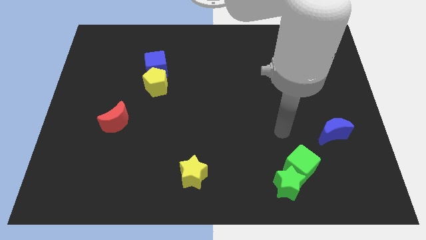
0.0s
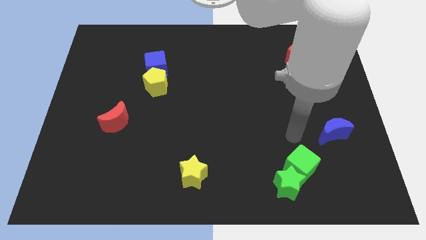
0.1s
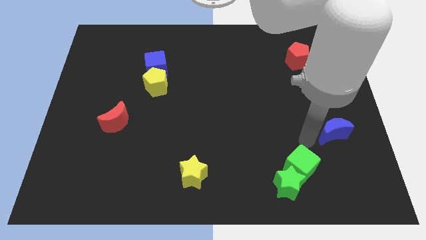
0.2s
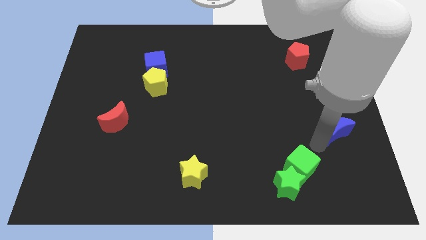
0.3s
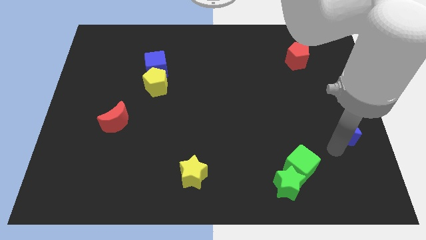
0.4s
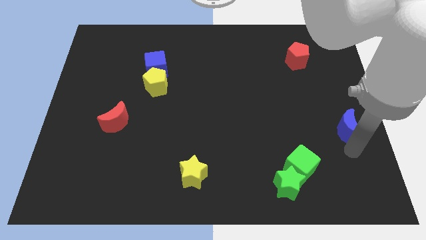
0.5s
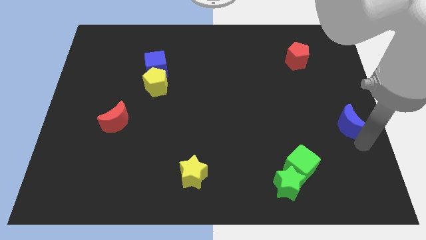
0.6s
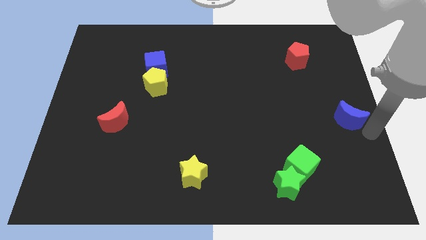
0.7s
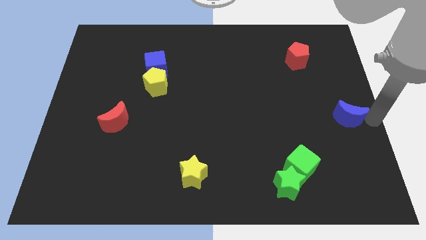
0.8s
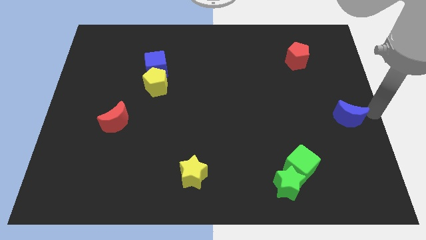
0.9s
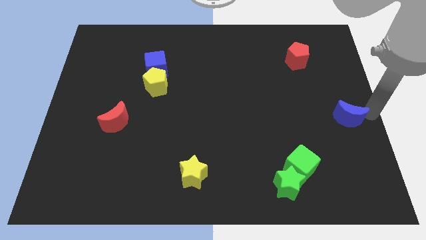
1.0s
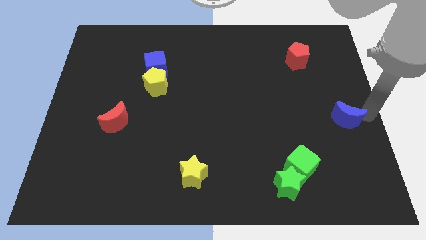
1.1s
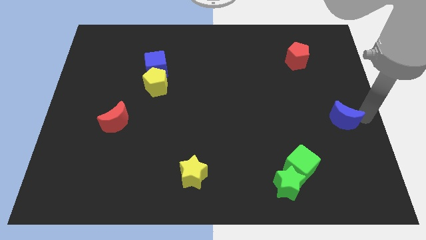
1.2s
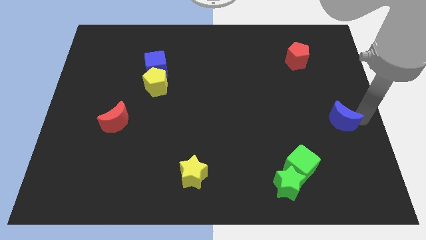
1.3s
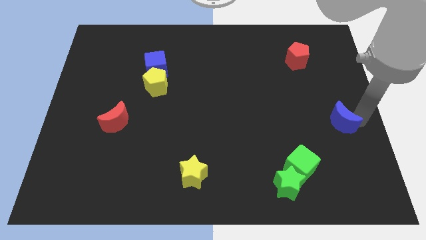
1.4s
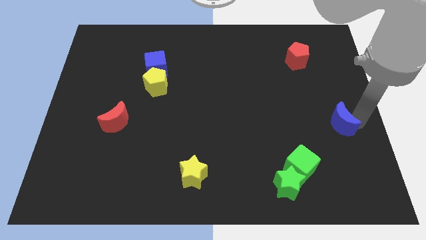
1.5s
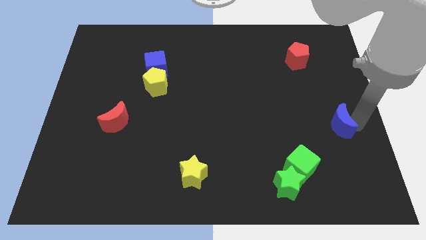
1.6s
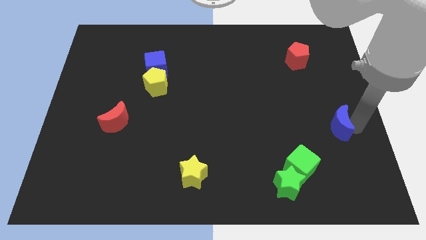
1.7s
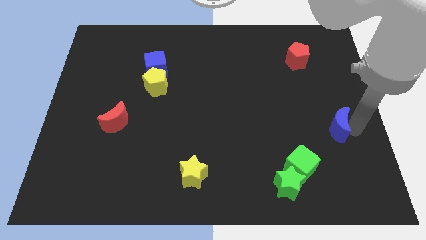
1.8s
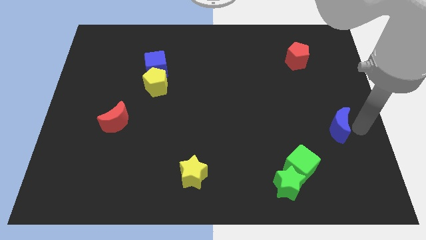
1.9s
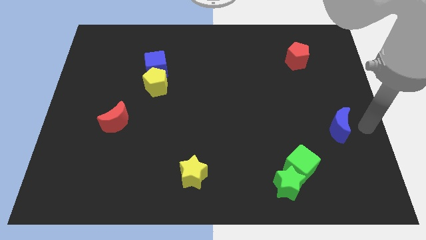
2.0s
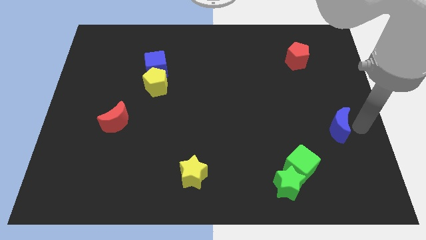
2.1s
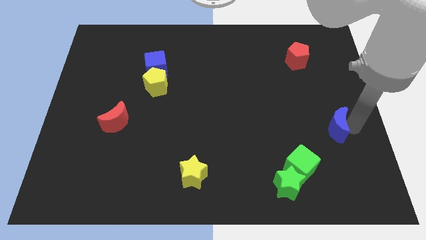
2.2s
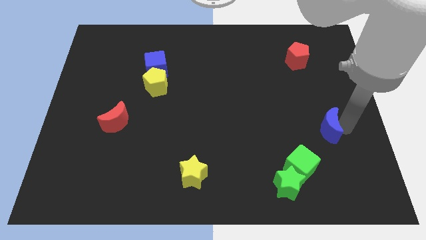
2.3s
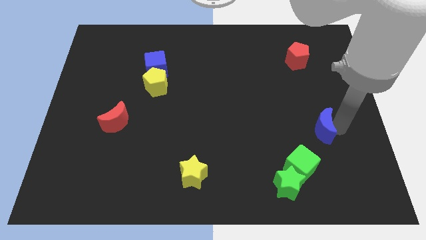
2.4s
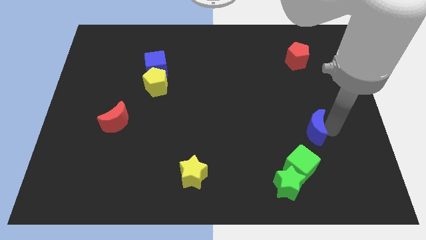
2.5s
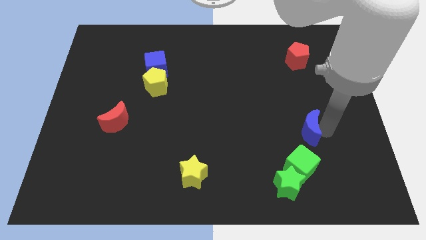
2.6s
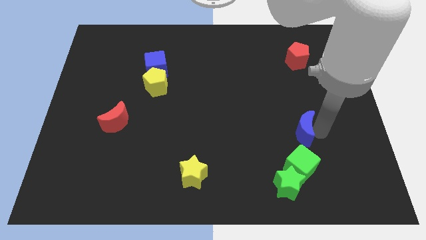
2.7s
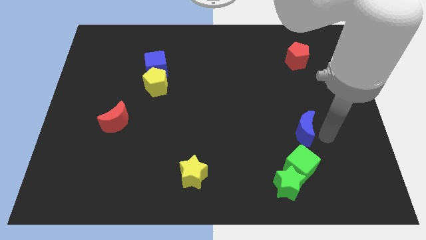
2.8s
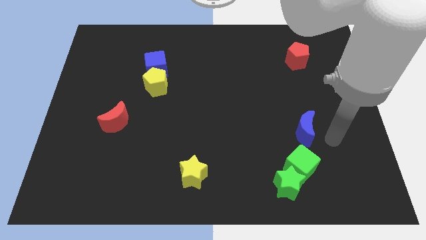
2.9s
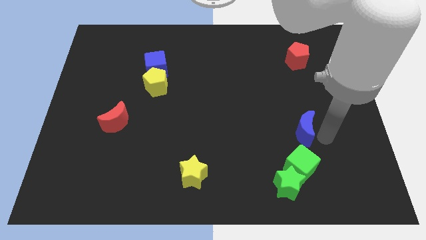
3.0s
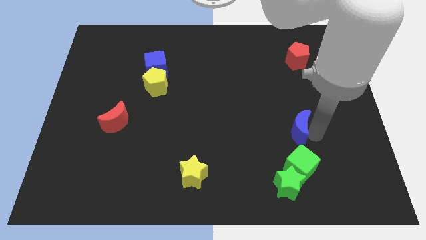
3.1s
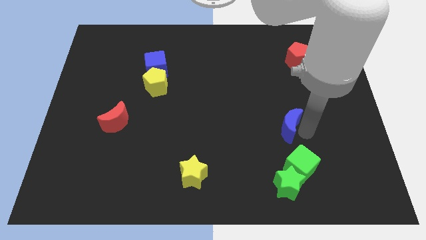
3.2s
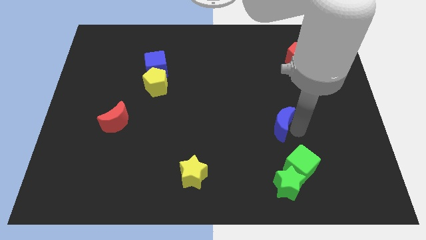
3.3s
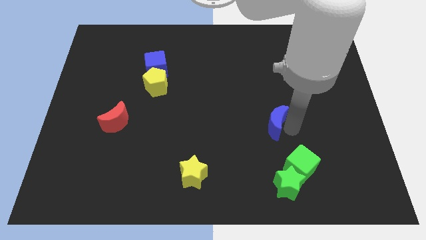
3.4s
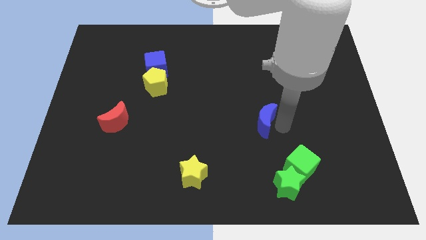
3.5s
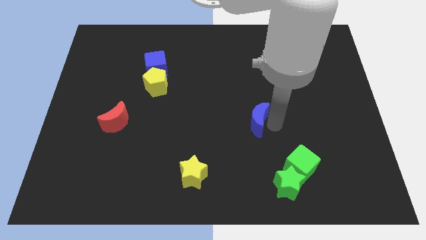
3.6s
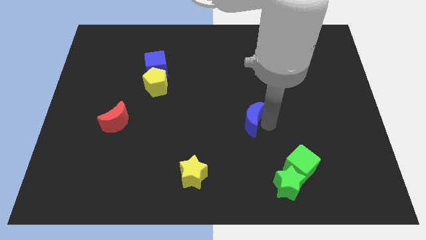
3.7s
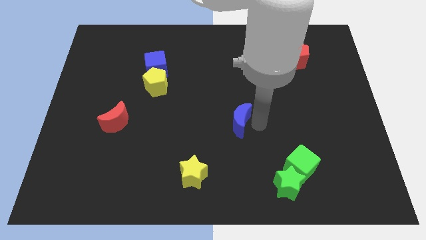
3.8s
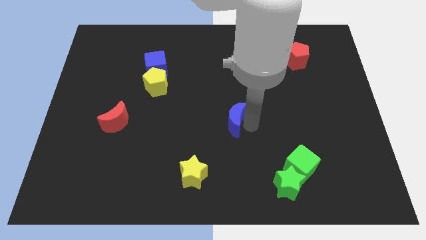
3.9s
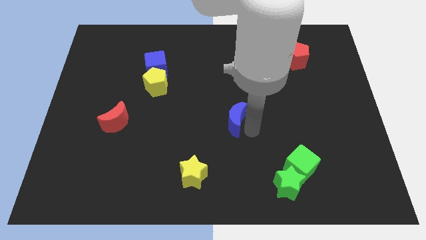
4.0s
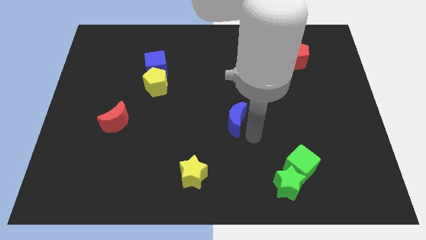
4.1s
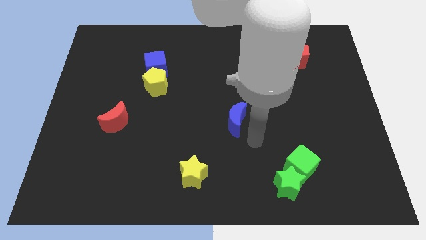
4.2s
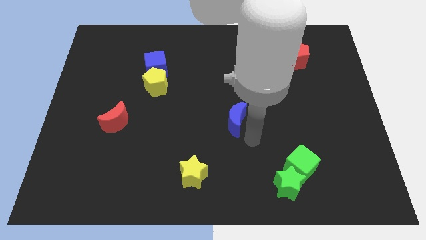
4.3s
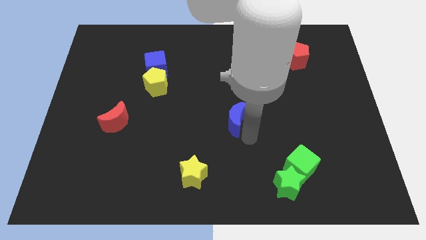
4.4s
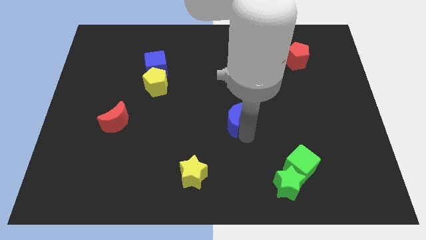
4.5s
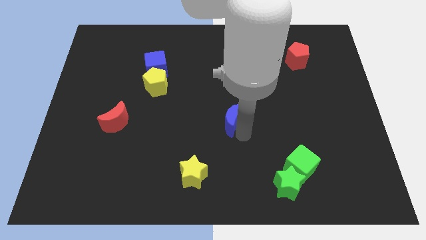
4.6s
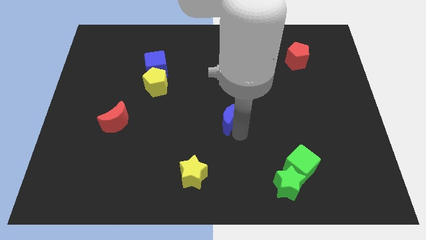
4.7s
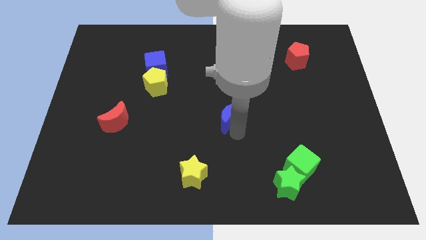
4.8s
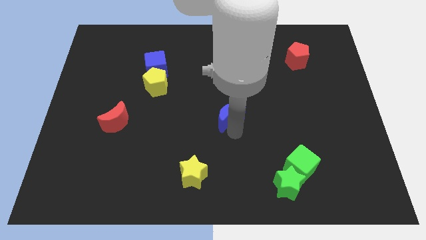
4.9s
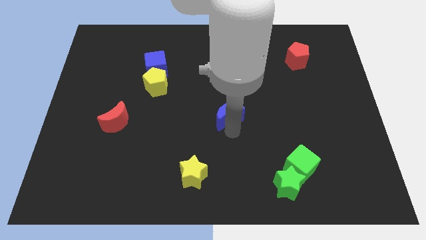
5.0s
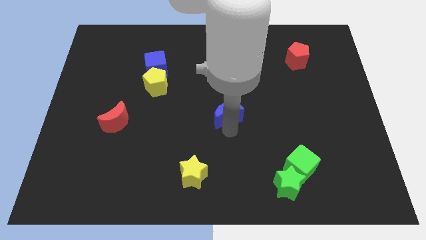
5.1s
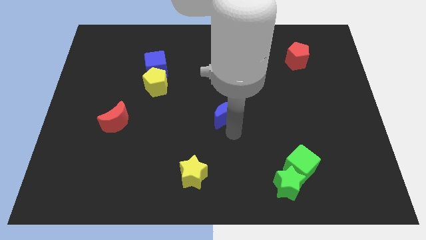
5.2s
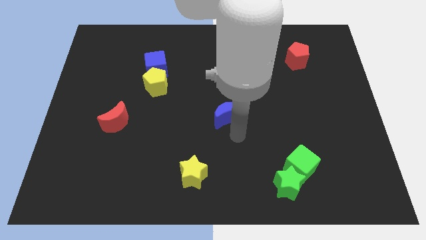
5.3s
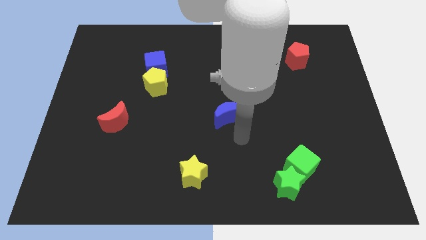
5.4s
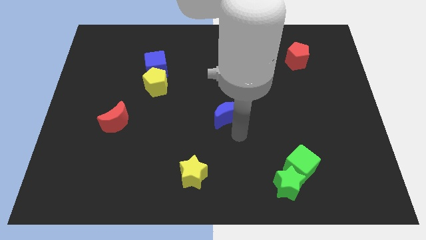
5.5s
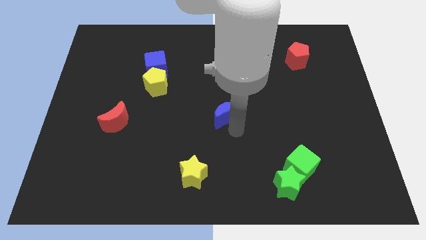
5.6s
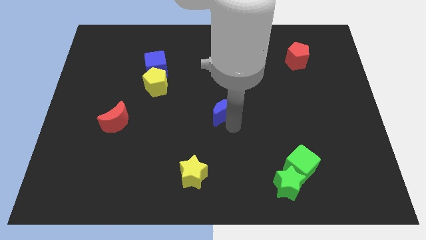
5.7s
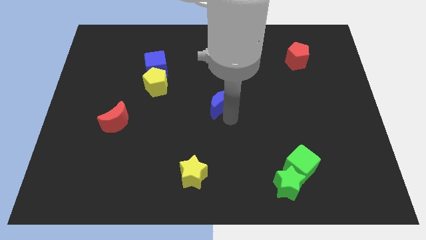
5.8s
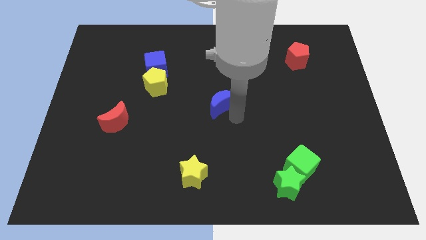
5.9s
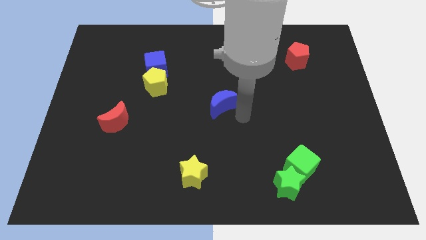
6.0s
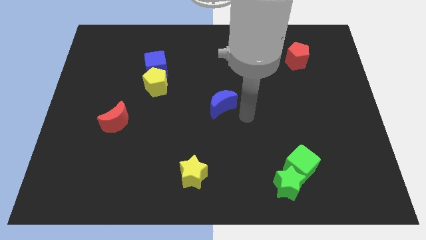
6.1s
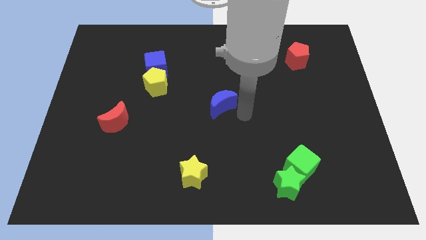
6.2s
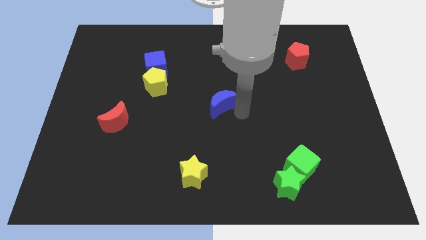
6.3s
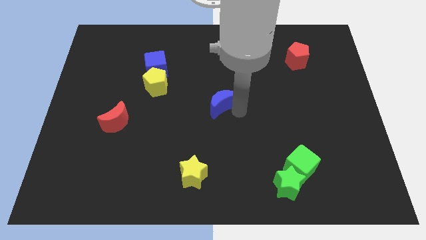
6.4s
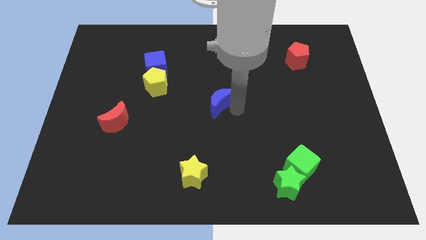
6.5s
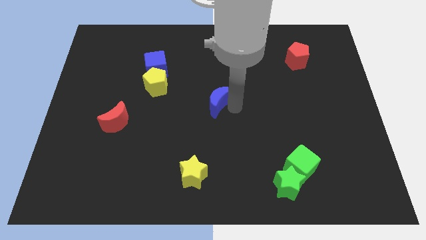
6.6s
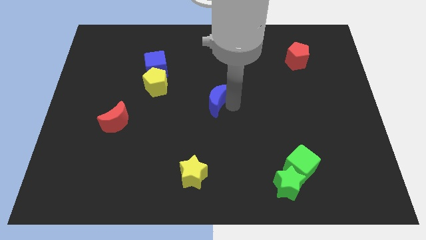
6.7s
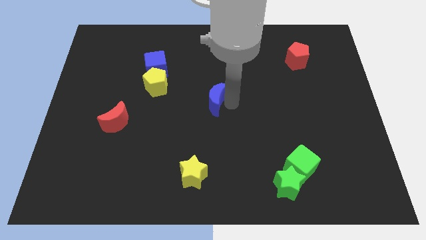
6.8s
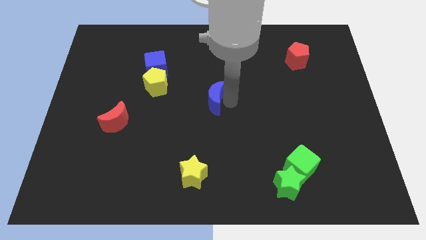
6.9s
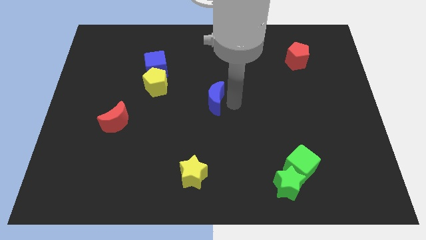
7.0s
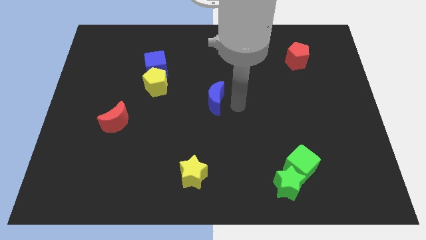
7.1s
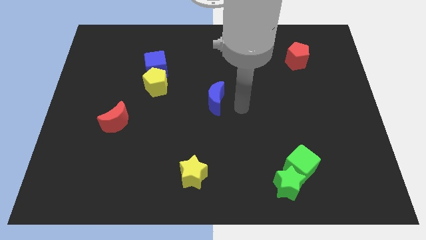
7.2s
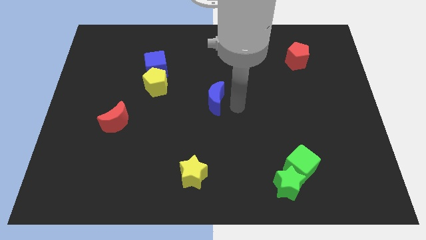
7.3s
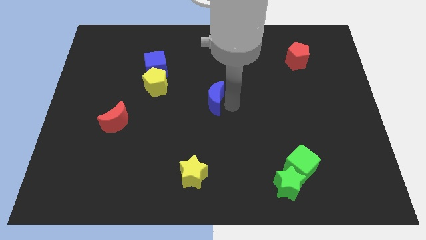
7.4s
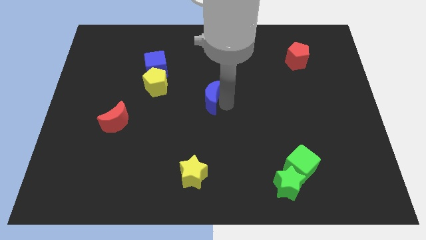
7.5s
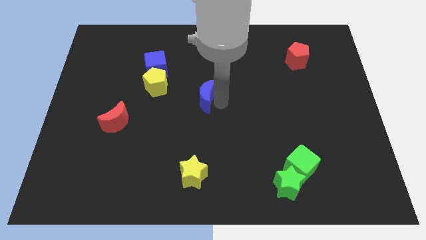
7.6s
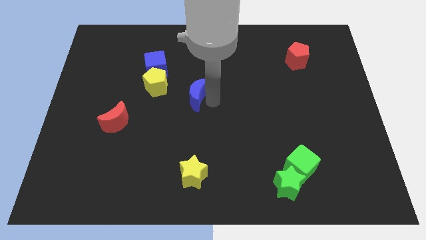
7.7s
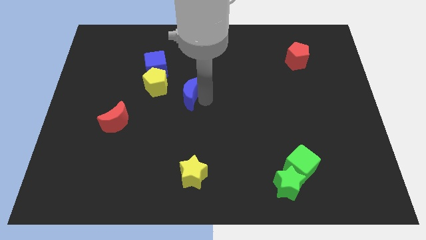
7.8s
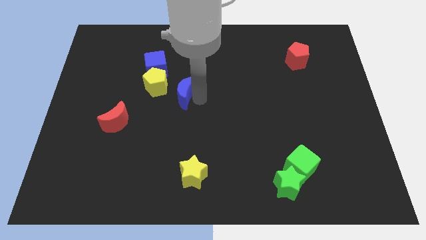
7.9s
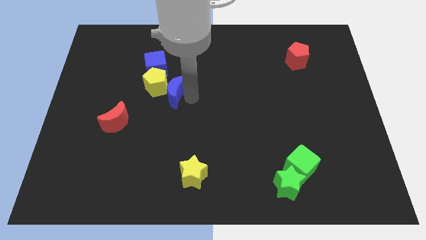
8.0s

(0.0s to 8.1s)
push the blue moon close to the yellow pentagon
